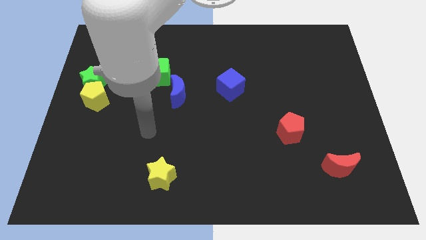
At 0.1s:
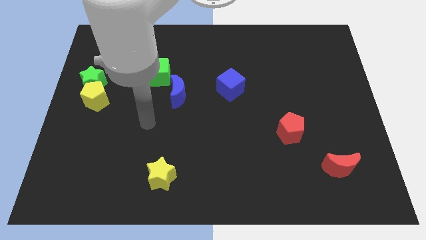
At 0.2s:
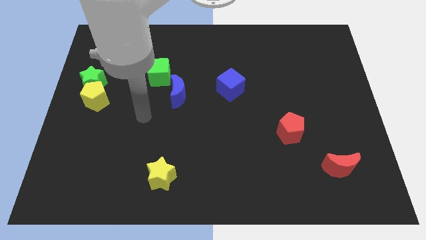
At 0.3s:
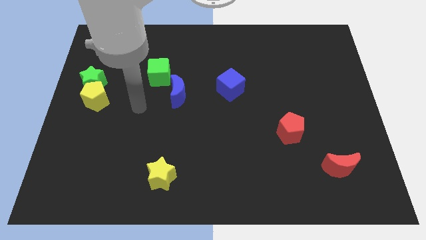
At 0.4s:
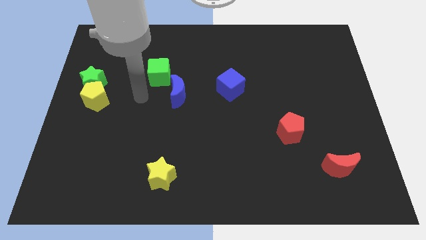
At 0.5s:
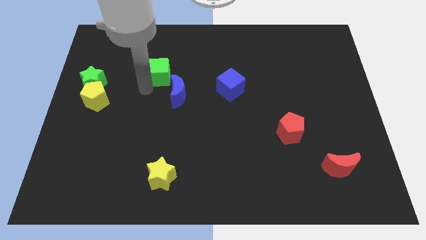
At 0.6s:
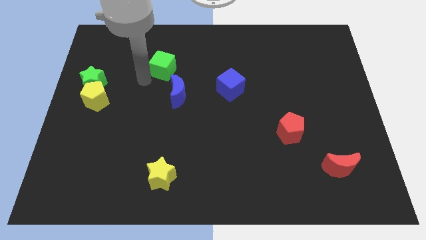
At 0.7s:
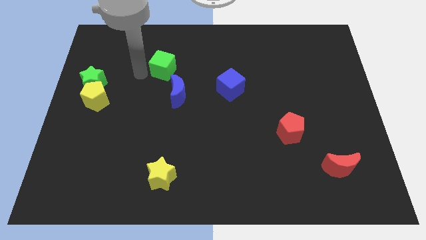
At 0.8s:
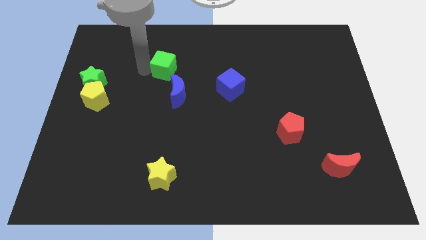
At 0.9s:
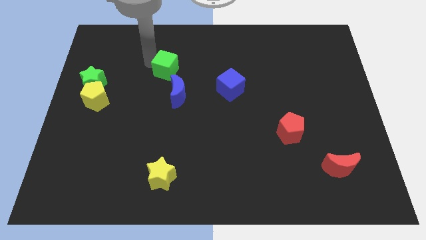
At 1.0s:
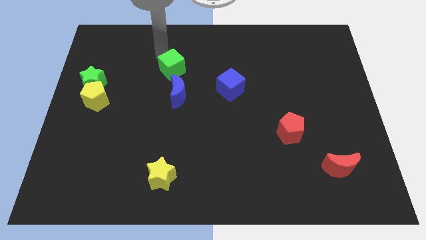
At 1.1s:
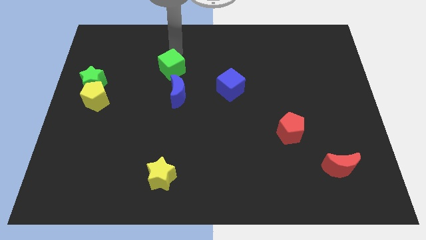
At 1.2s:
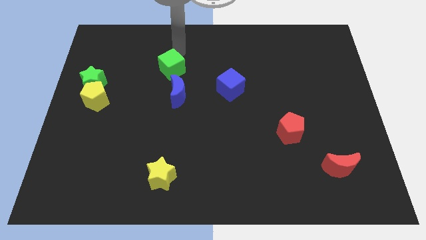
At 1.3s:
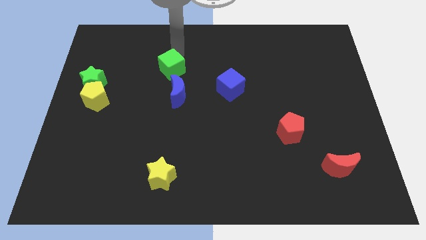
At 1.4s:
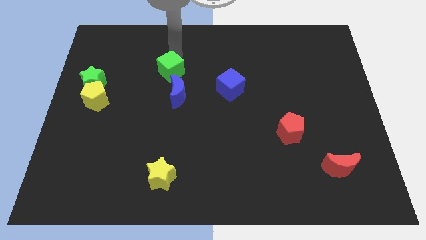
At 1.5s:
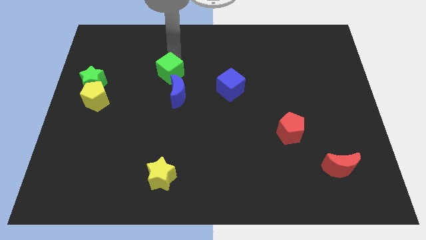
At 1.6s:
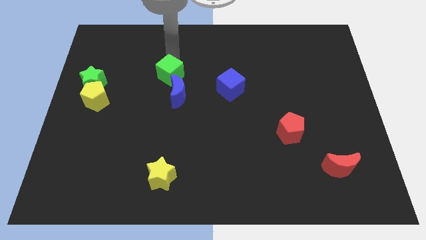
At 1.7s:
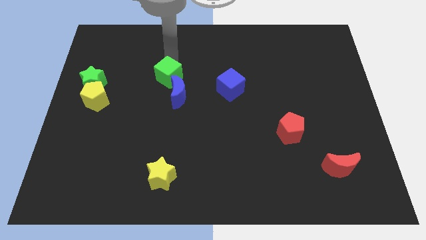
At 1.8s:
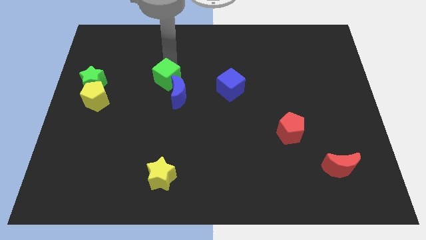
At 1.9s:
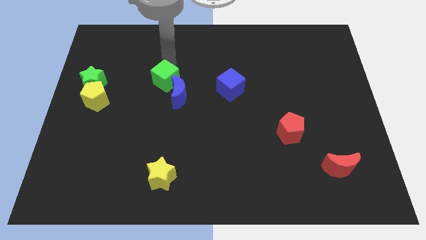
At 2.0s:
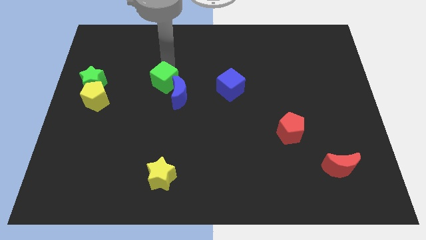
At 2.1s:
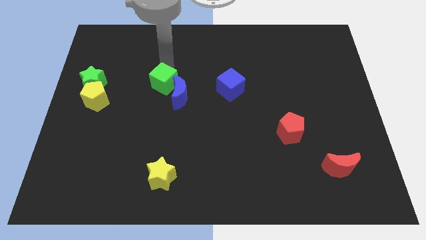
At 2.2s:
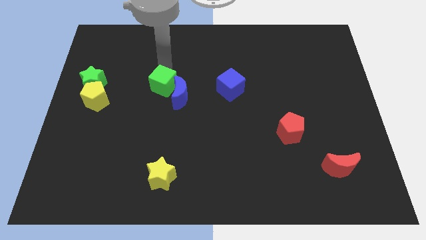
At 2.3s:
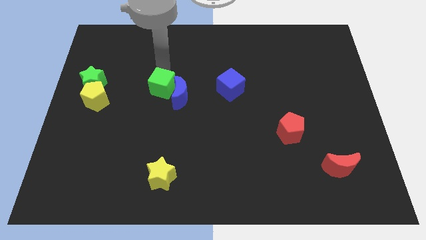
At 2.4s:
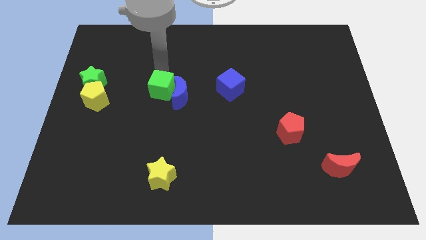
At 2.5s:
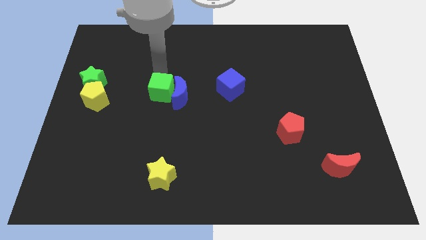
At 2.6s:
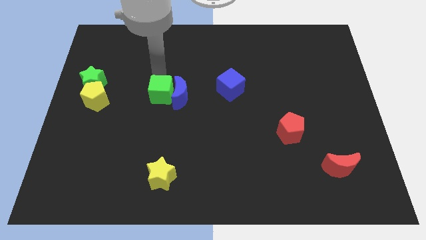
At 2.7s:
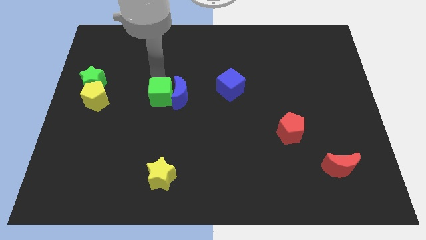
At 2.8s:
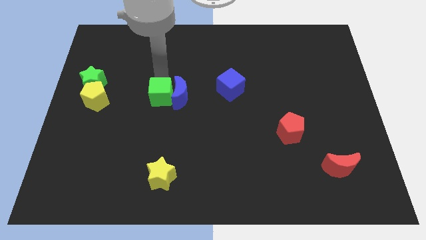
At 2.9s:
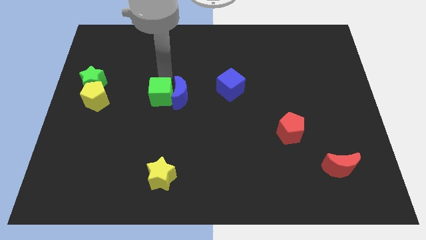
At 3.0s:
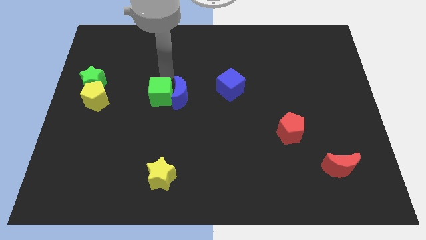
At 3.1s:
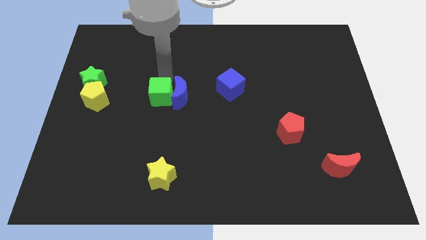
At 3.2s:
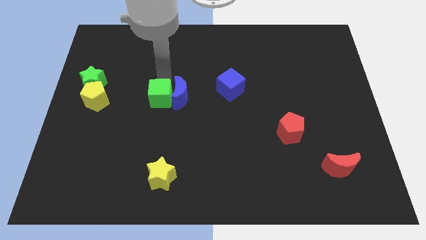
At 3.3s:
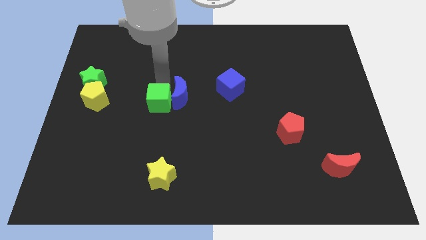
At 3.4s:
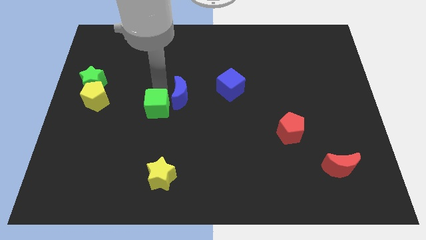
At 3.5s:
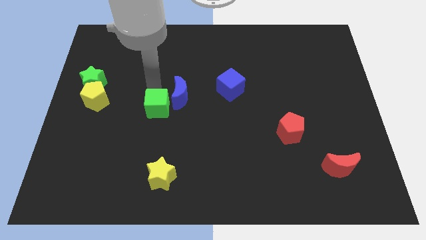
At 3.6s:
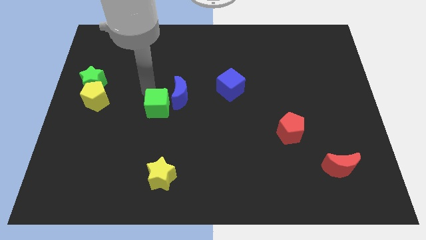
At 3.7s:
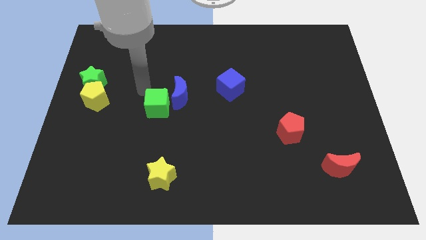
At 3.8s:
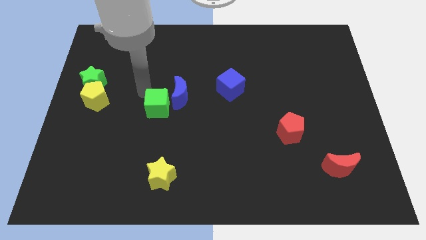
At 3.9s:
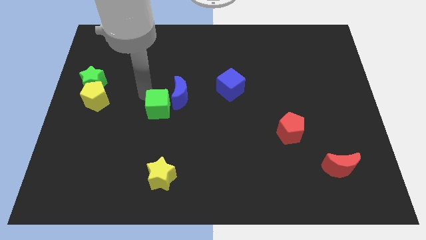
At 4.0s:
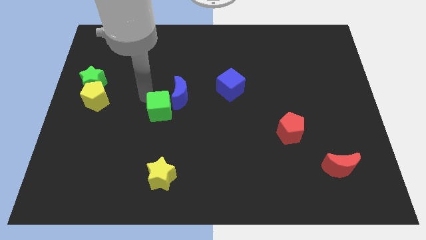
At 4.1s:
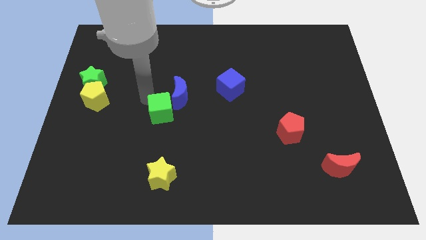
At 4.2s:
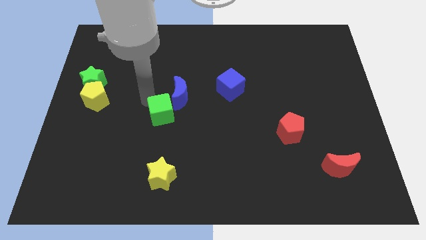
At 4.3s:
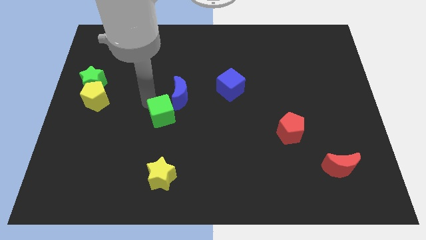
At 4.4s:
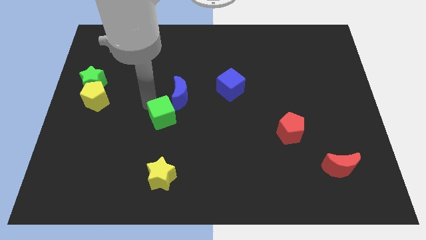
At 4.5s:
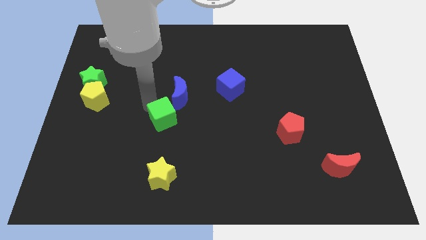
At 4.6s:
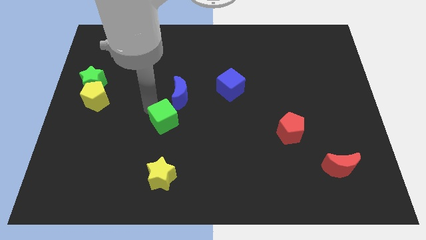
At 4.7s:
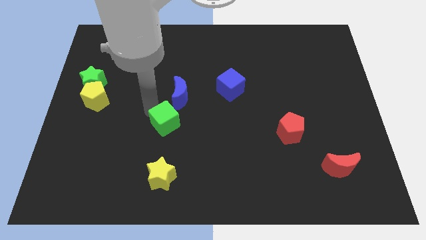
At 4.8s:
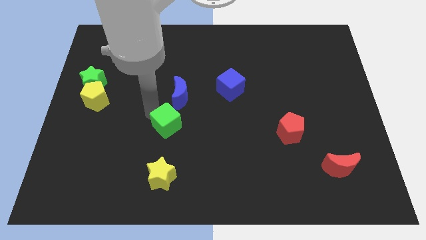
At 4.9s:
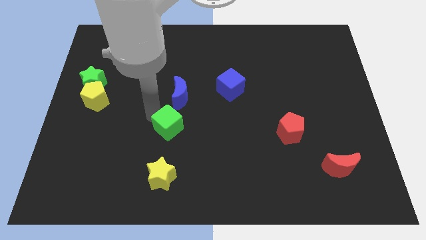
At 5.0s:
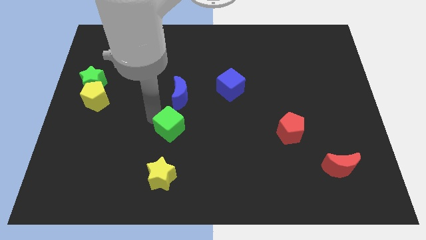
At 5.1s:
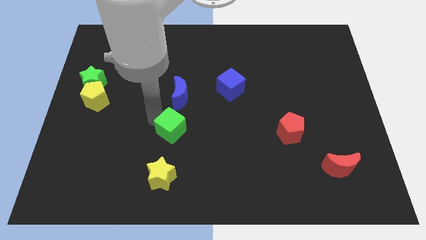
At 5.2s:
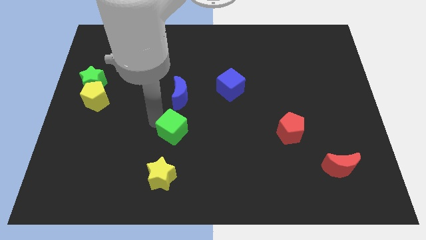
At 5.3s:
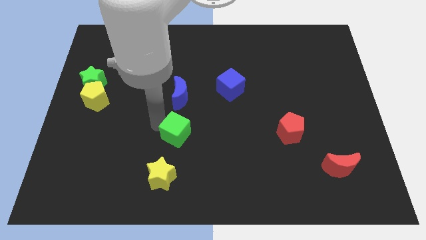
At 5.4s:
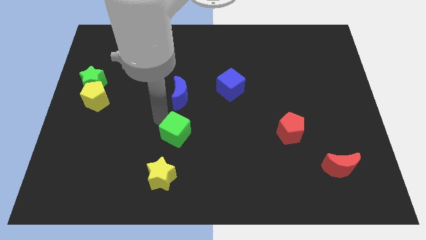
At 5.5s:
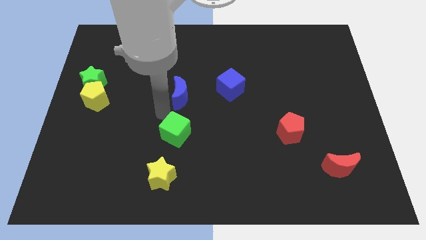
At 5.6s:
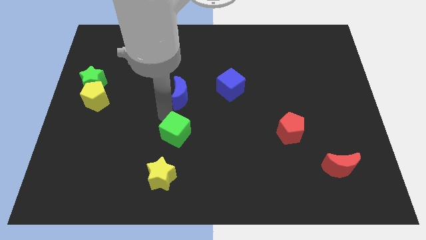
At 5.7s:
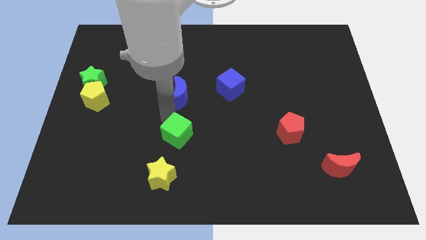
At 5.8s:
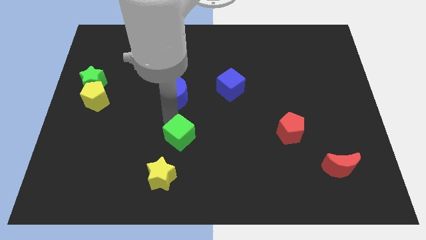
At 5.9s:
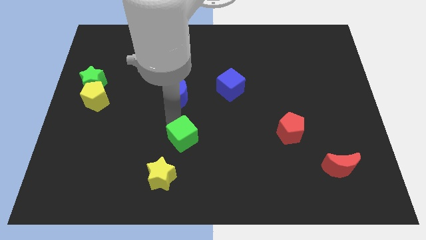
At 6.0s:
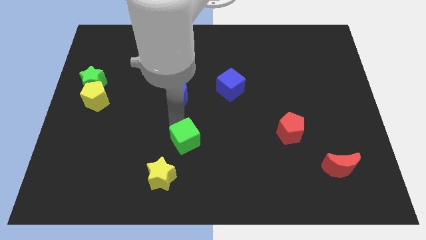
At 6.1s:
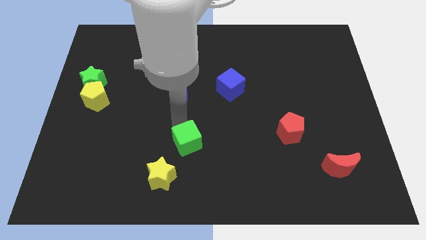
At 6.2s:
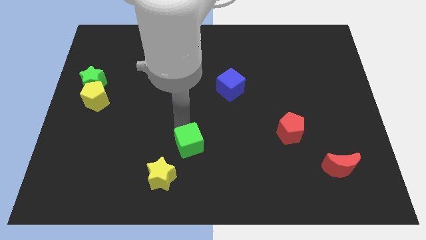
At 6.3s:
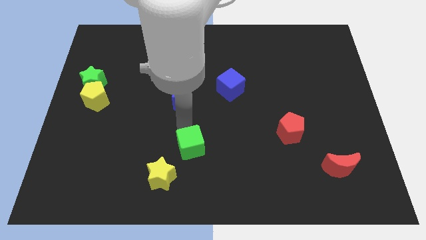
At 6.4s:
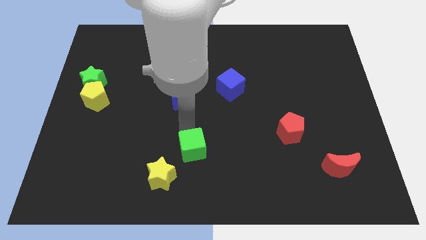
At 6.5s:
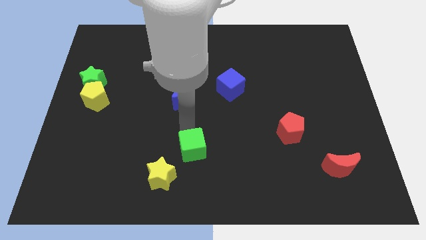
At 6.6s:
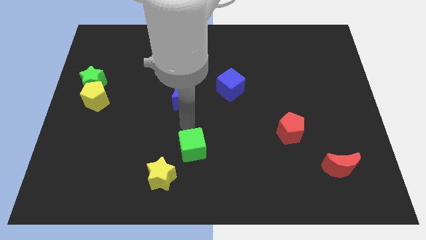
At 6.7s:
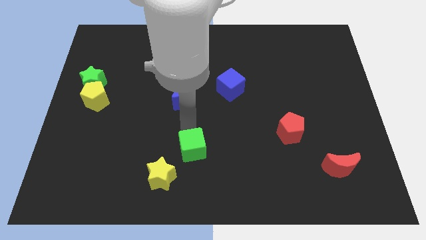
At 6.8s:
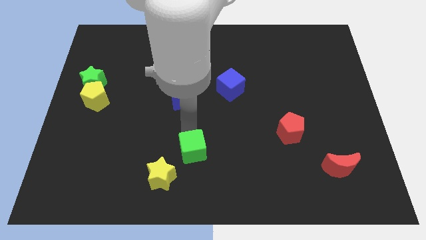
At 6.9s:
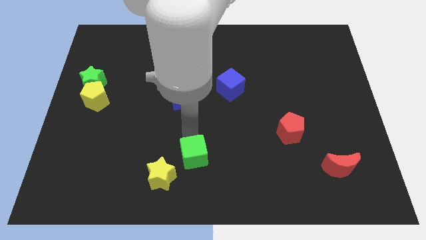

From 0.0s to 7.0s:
slide the green cube to the bottom

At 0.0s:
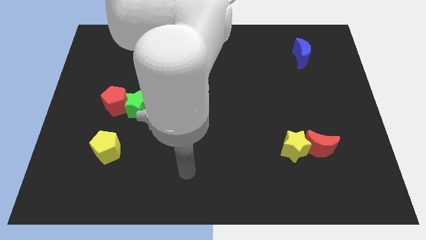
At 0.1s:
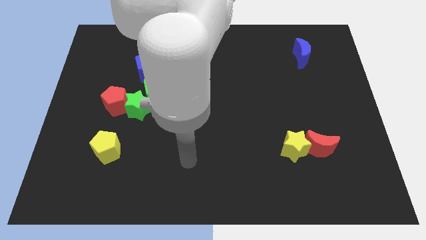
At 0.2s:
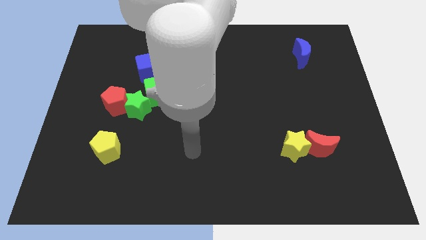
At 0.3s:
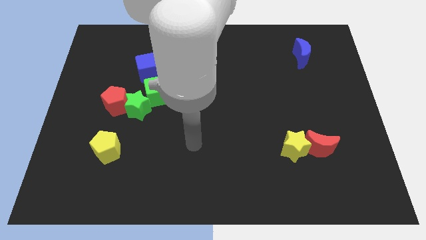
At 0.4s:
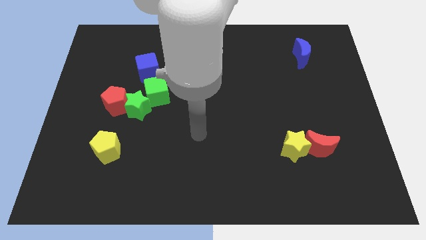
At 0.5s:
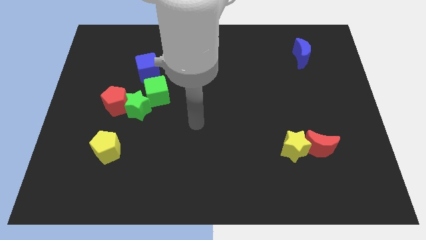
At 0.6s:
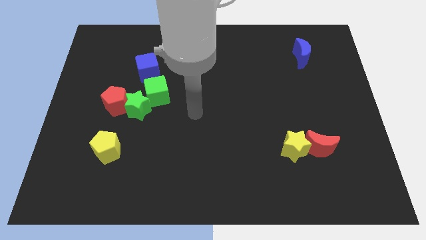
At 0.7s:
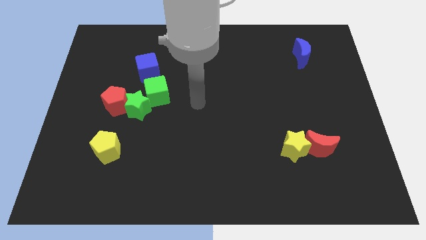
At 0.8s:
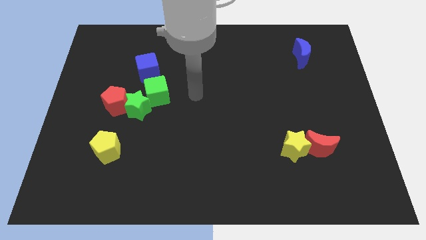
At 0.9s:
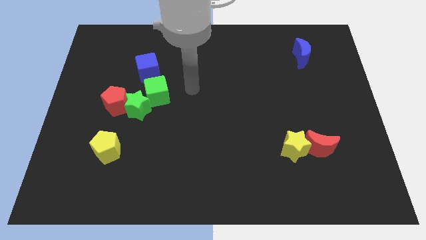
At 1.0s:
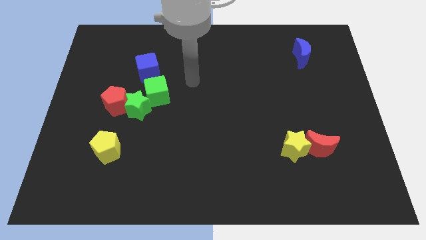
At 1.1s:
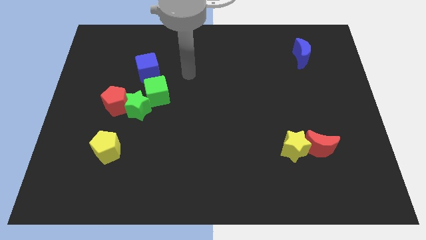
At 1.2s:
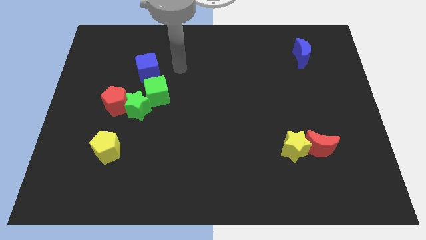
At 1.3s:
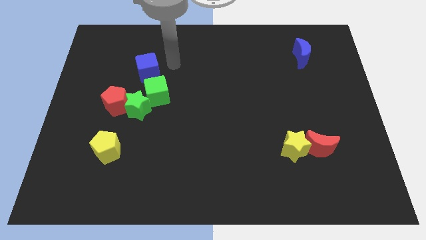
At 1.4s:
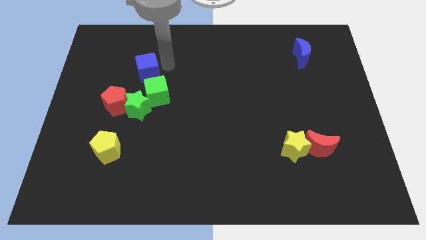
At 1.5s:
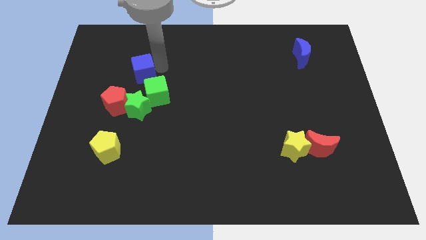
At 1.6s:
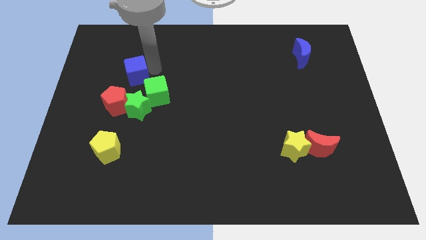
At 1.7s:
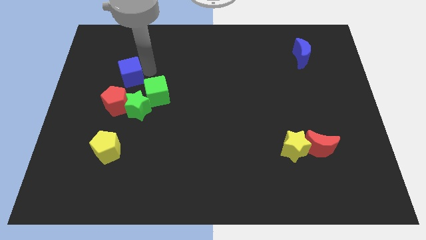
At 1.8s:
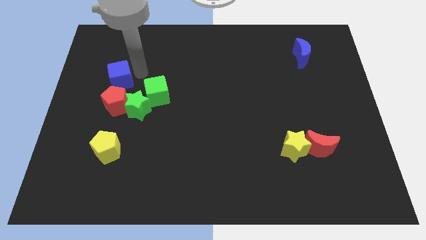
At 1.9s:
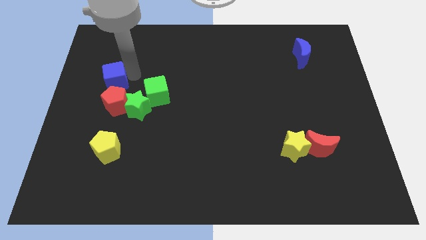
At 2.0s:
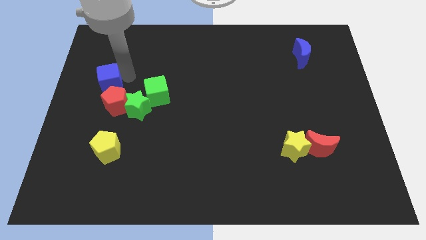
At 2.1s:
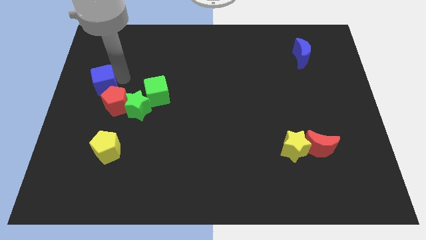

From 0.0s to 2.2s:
move the blue cube to the left side of the board
